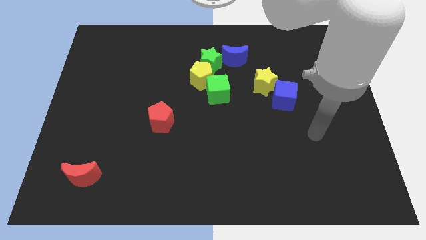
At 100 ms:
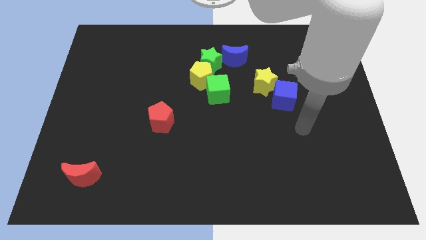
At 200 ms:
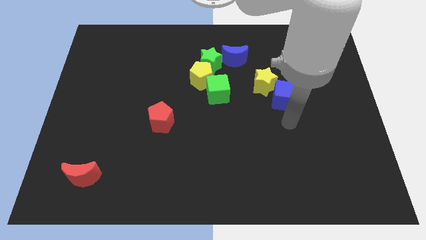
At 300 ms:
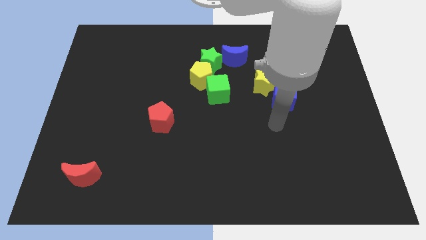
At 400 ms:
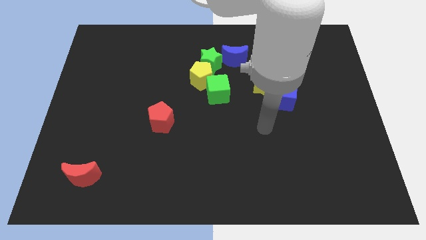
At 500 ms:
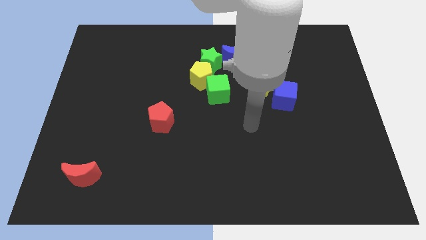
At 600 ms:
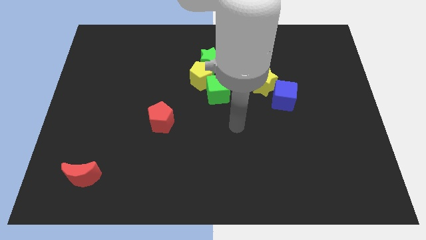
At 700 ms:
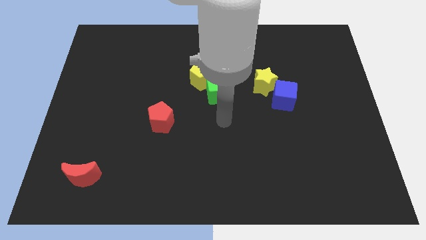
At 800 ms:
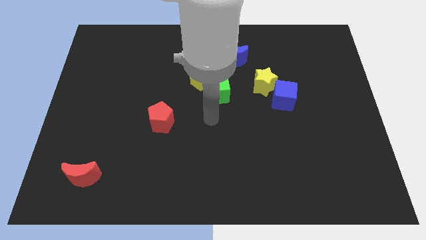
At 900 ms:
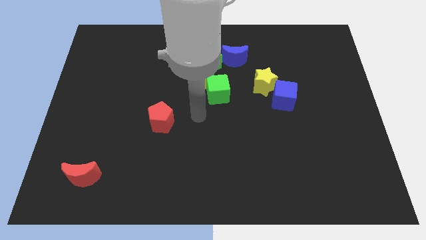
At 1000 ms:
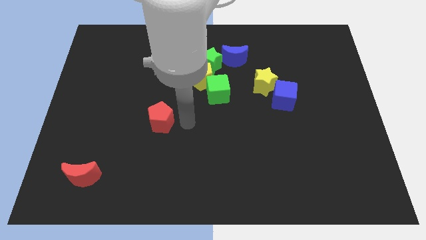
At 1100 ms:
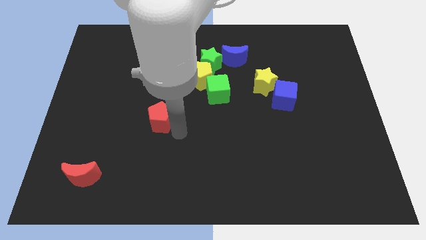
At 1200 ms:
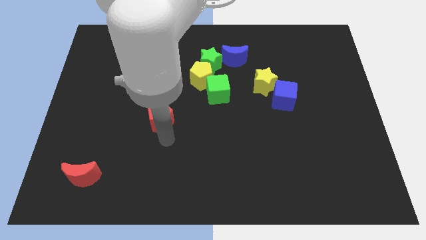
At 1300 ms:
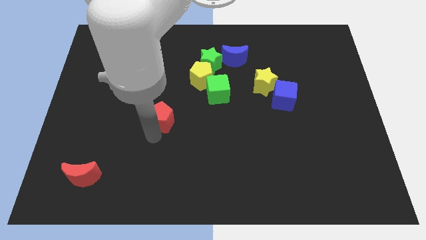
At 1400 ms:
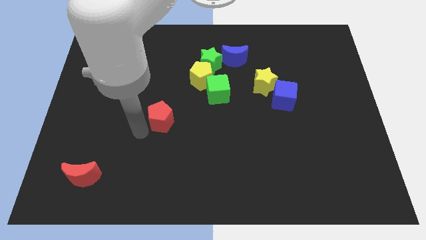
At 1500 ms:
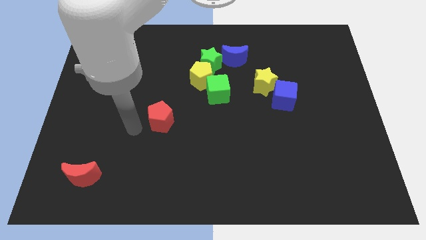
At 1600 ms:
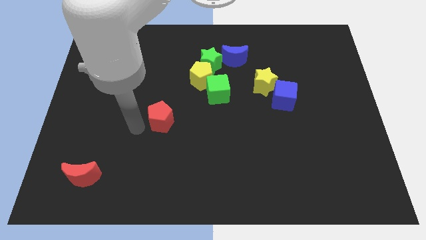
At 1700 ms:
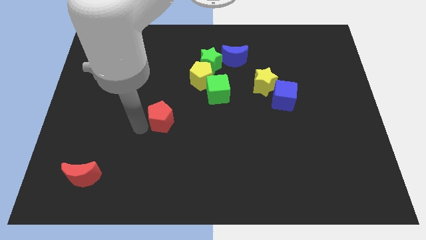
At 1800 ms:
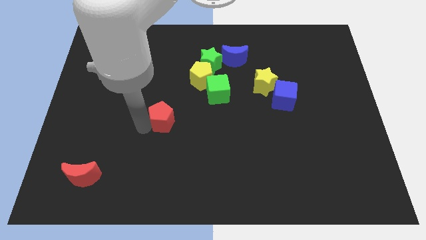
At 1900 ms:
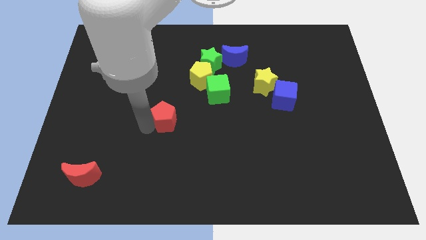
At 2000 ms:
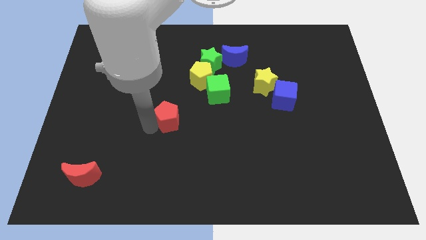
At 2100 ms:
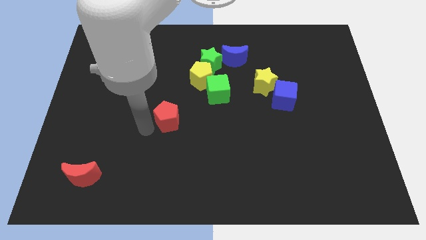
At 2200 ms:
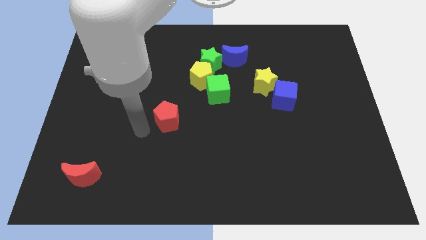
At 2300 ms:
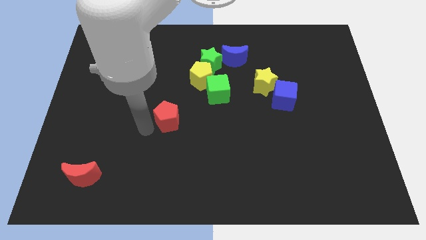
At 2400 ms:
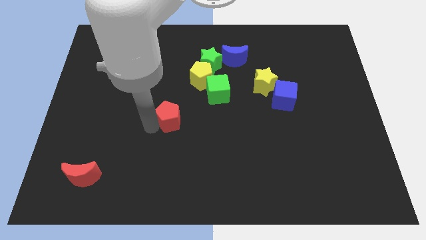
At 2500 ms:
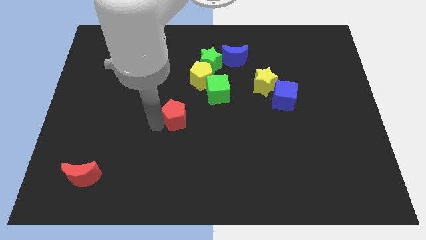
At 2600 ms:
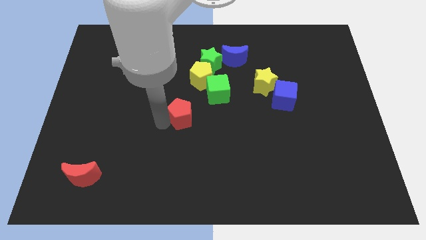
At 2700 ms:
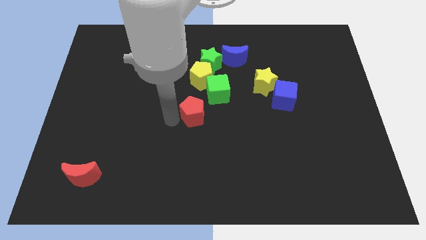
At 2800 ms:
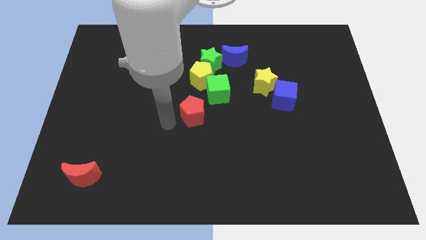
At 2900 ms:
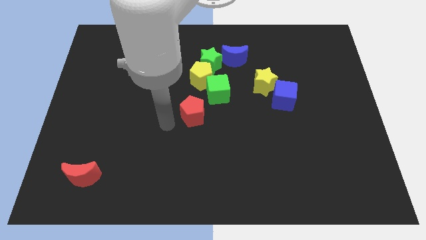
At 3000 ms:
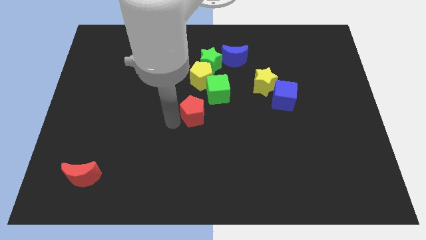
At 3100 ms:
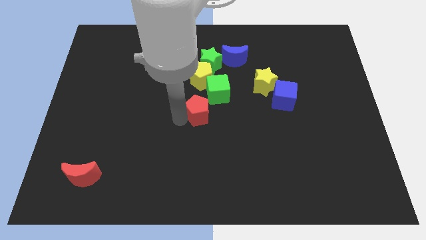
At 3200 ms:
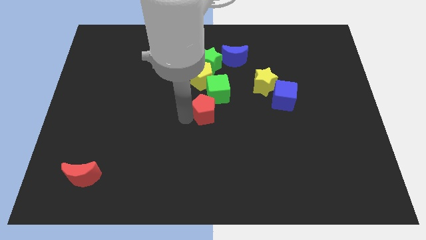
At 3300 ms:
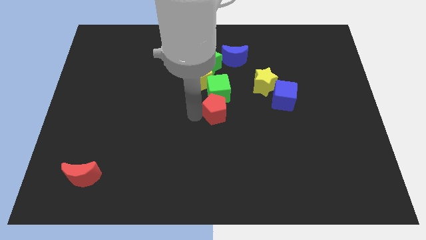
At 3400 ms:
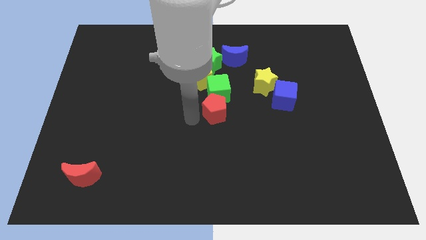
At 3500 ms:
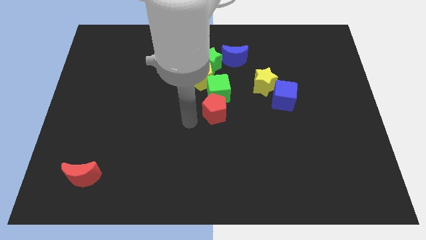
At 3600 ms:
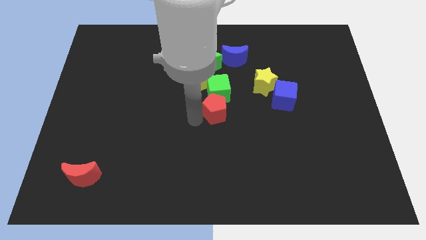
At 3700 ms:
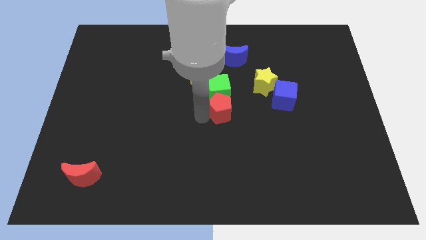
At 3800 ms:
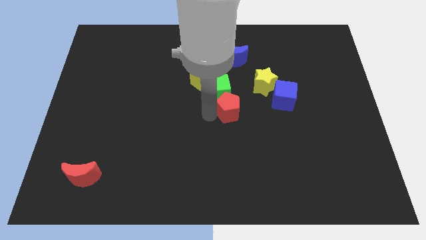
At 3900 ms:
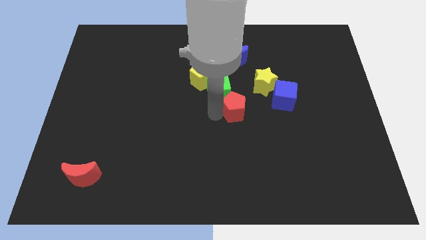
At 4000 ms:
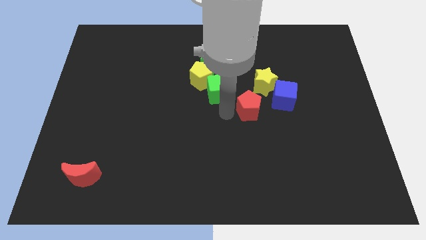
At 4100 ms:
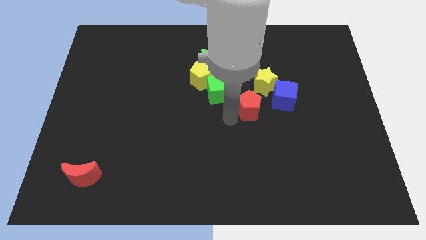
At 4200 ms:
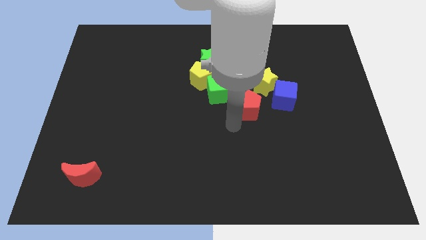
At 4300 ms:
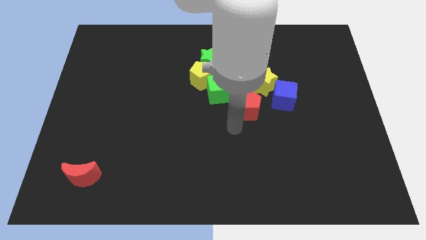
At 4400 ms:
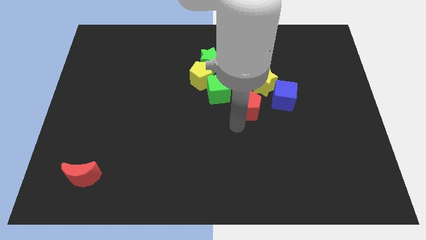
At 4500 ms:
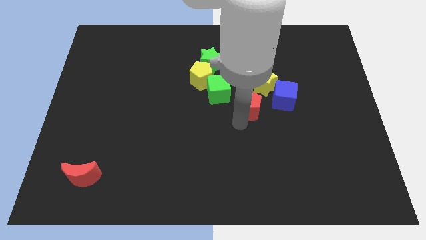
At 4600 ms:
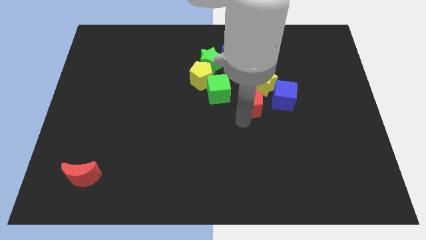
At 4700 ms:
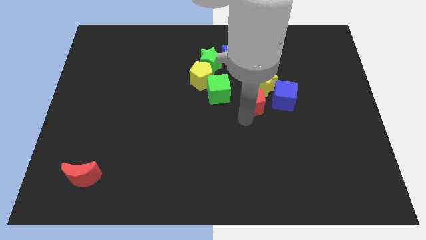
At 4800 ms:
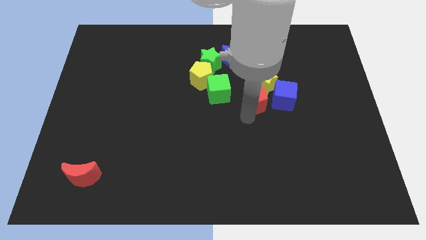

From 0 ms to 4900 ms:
slide the red pentagon to the yellow star

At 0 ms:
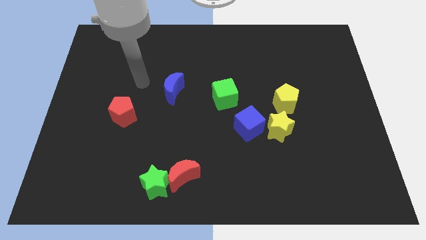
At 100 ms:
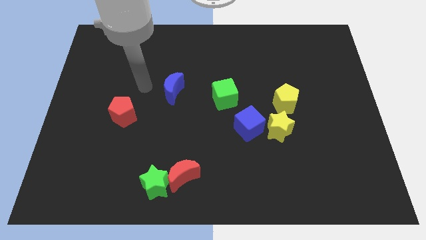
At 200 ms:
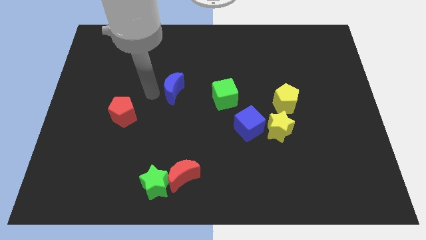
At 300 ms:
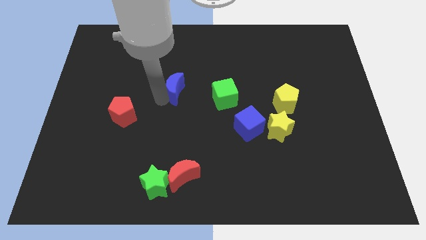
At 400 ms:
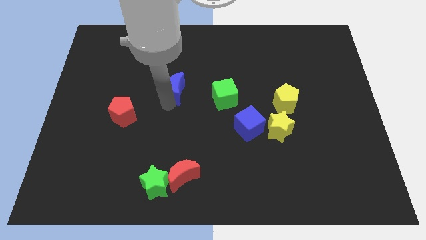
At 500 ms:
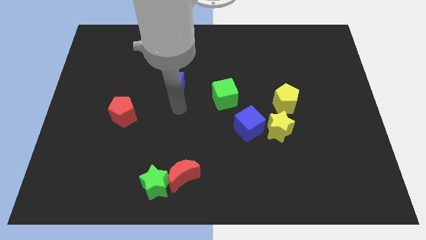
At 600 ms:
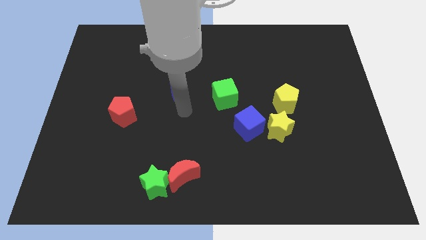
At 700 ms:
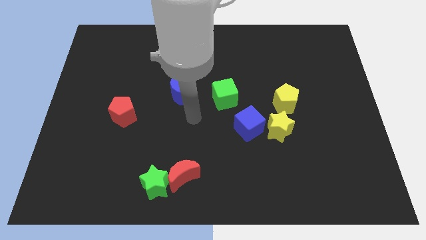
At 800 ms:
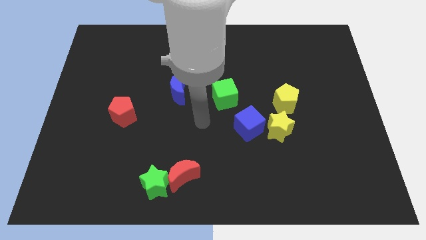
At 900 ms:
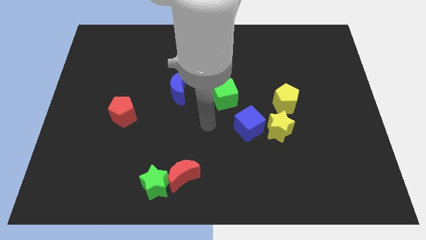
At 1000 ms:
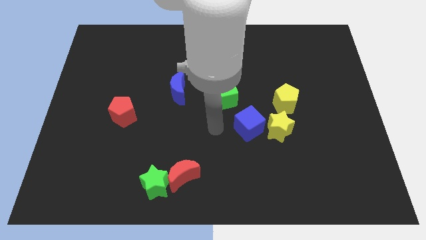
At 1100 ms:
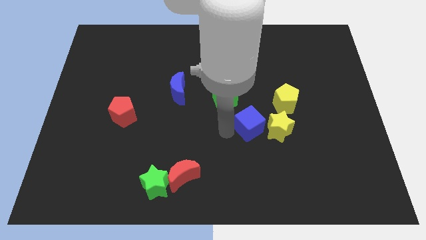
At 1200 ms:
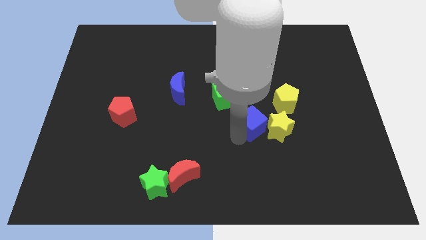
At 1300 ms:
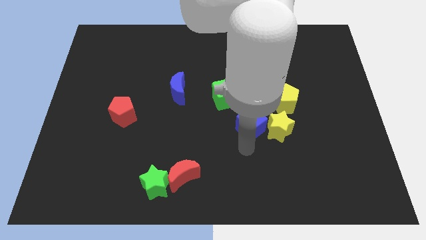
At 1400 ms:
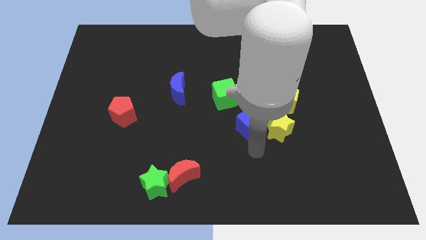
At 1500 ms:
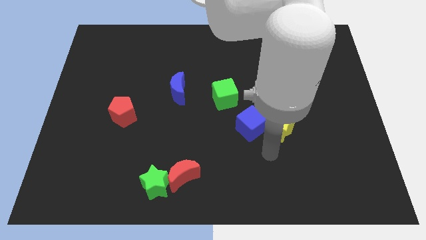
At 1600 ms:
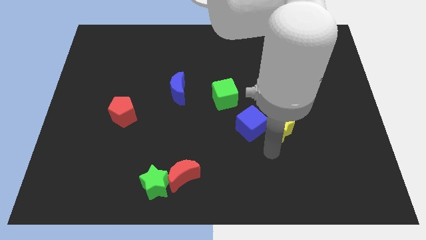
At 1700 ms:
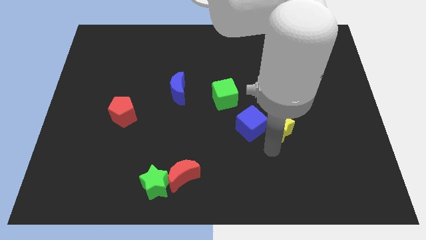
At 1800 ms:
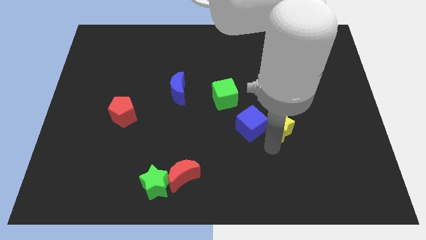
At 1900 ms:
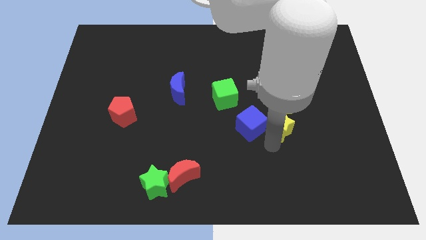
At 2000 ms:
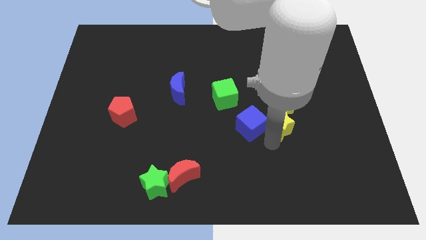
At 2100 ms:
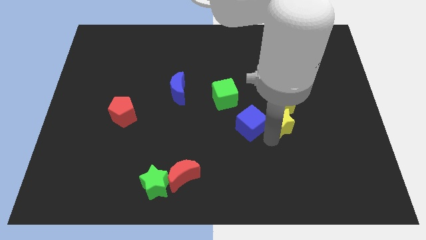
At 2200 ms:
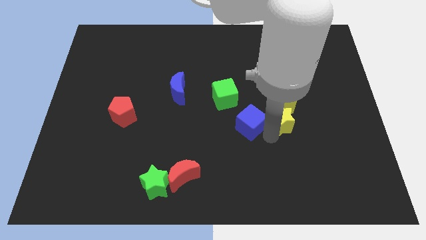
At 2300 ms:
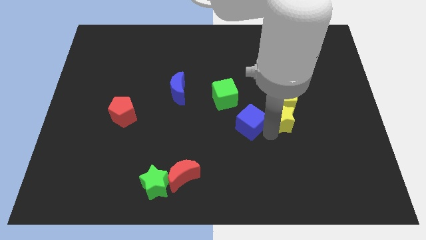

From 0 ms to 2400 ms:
move the yellow star to the yellow pentagon
